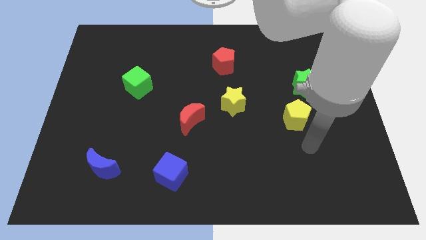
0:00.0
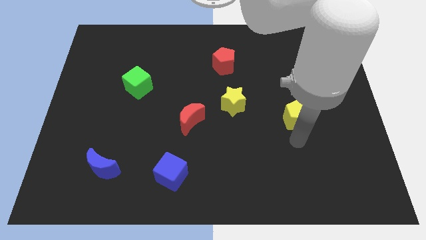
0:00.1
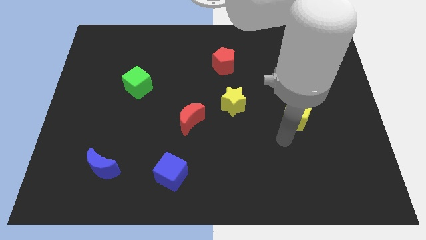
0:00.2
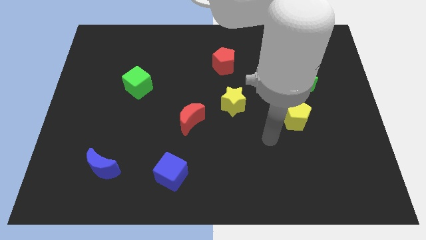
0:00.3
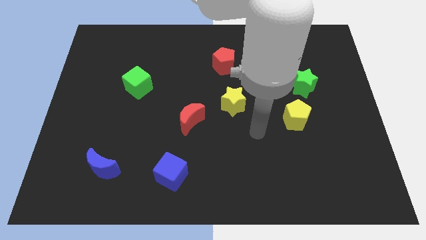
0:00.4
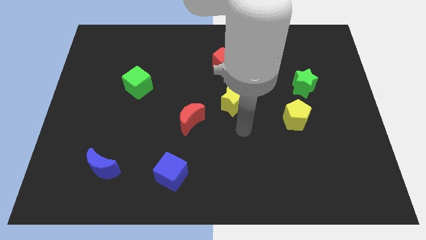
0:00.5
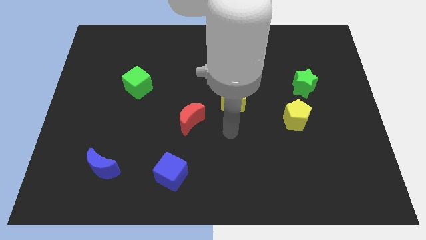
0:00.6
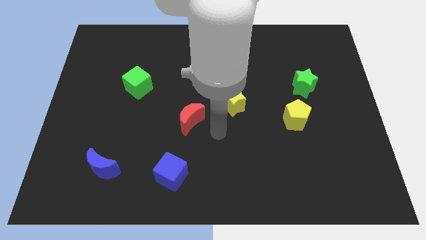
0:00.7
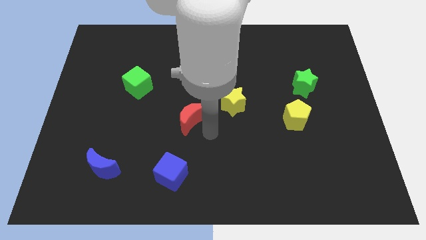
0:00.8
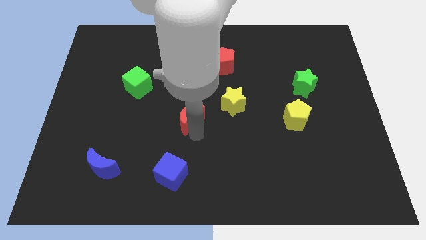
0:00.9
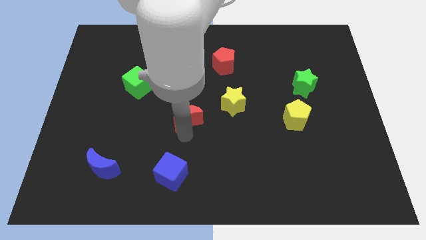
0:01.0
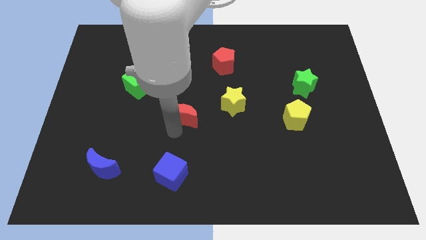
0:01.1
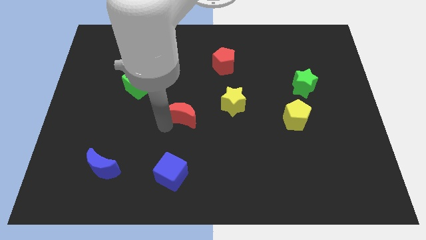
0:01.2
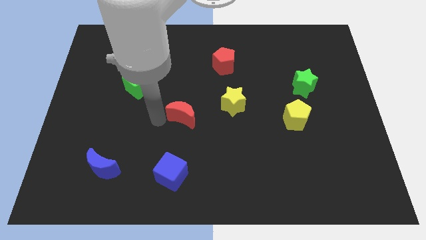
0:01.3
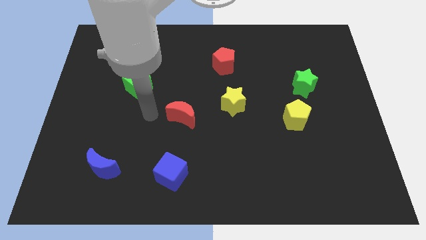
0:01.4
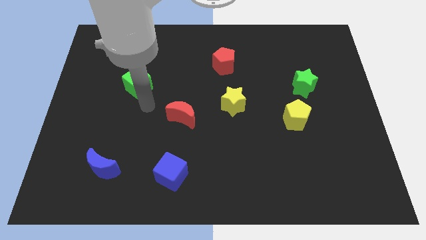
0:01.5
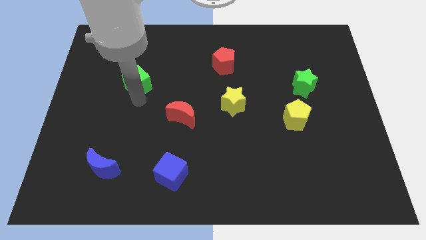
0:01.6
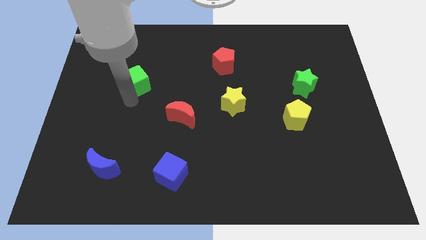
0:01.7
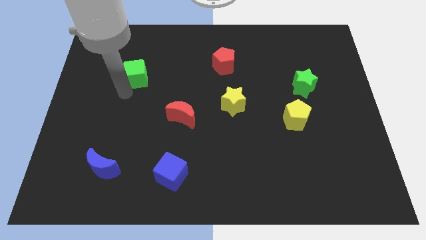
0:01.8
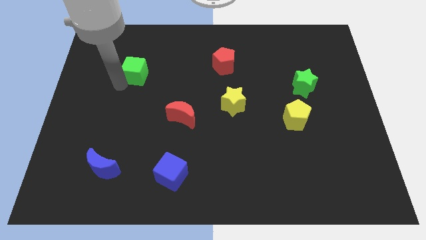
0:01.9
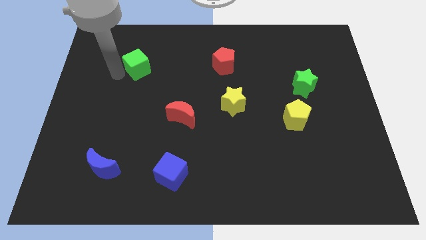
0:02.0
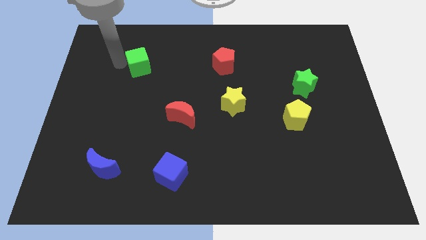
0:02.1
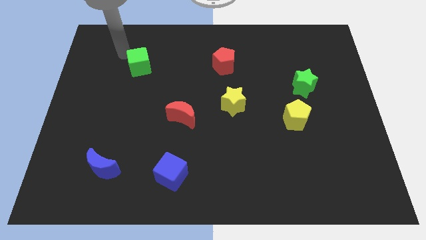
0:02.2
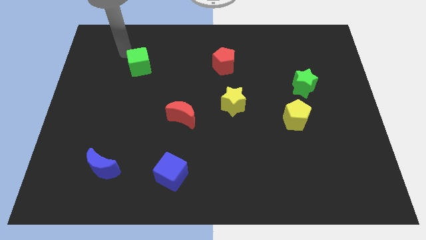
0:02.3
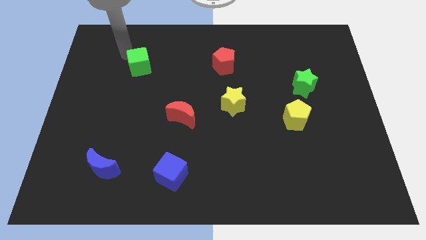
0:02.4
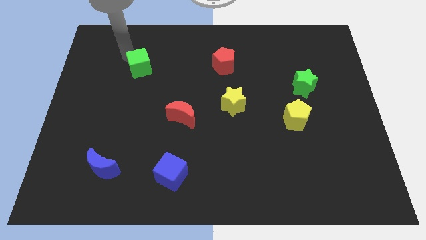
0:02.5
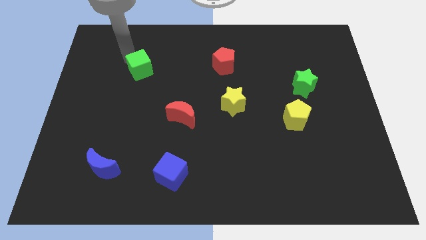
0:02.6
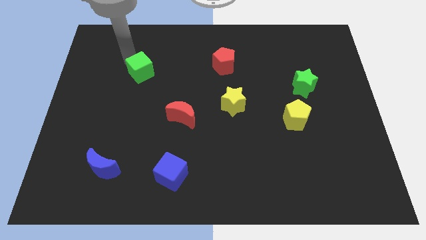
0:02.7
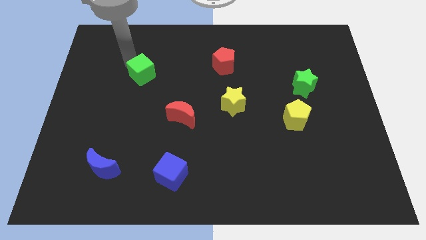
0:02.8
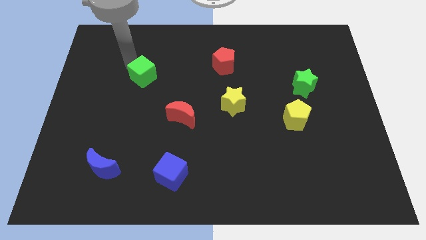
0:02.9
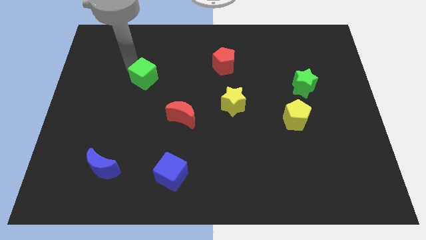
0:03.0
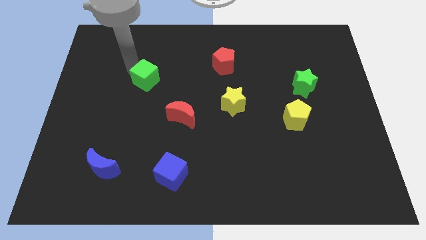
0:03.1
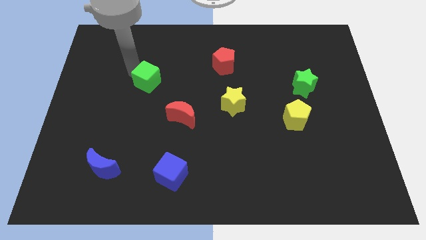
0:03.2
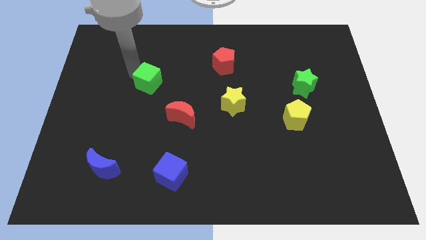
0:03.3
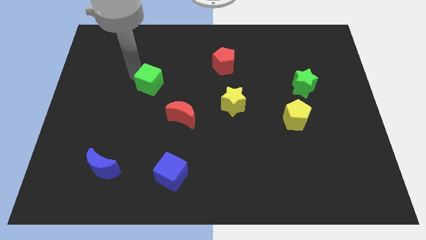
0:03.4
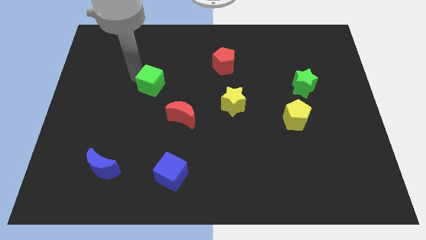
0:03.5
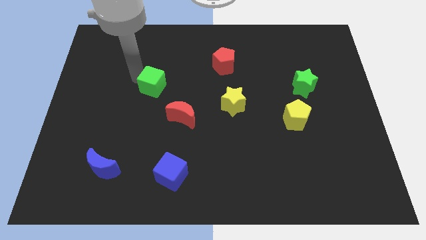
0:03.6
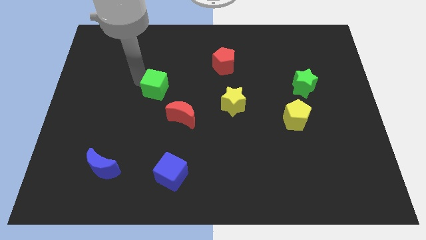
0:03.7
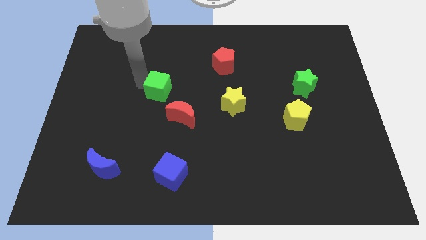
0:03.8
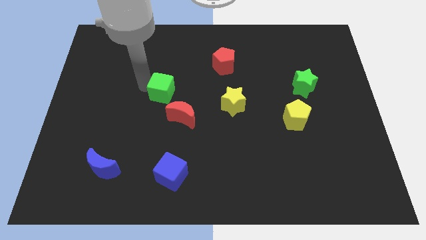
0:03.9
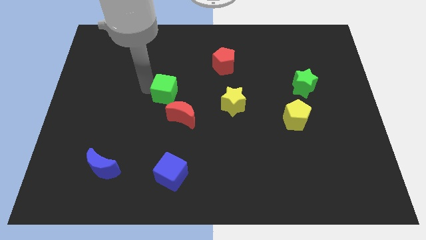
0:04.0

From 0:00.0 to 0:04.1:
slightly push the green cube to the right

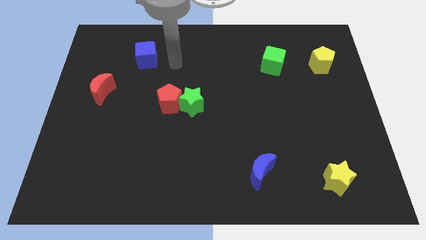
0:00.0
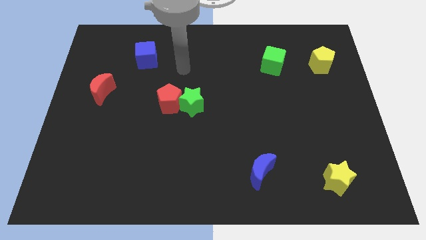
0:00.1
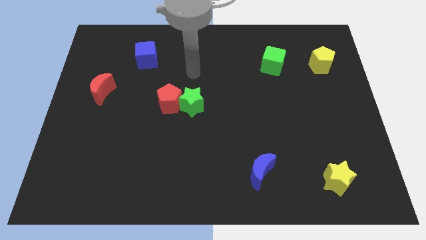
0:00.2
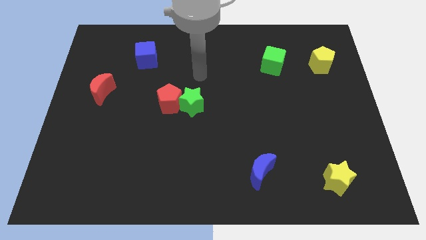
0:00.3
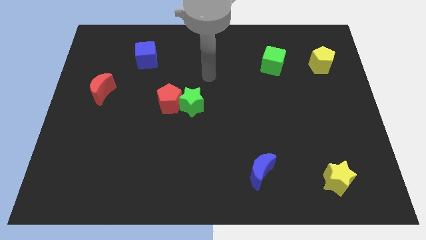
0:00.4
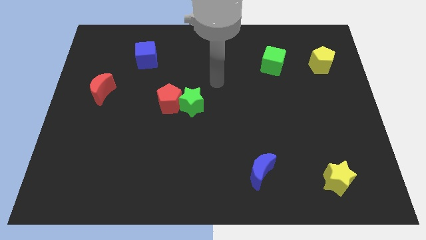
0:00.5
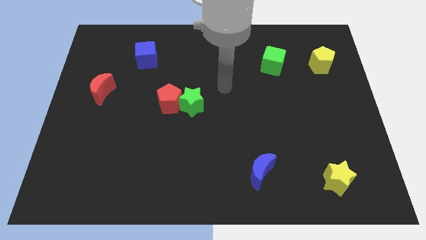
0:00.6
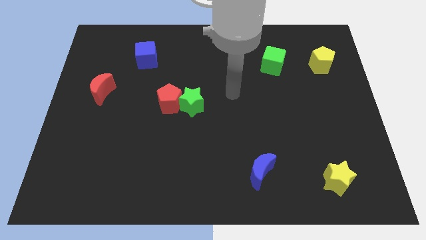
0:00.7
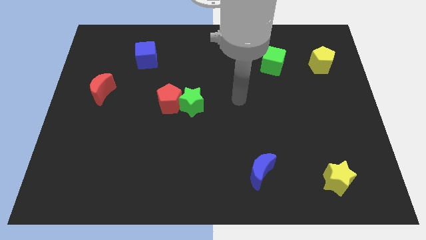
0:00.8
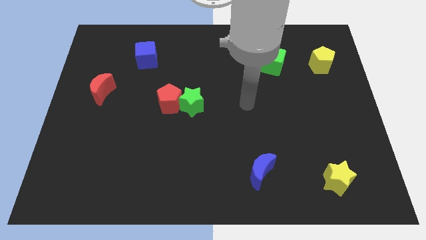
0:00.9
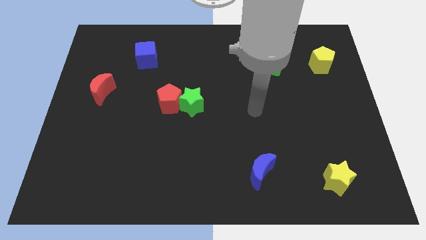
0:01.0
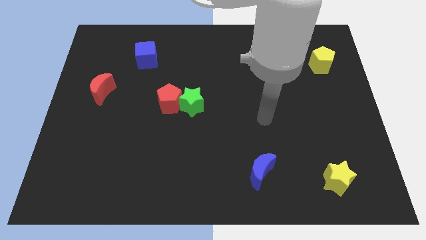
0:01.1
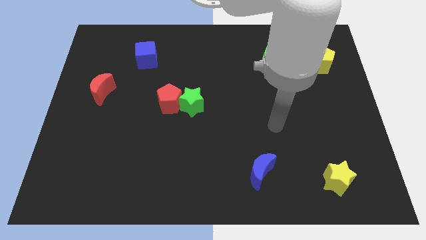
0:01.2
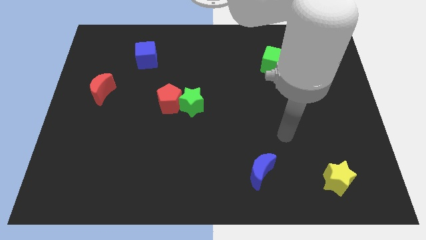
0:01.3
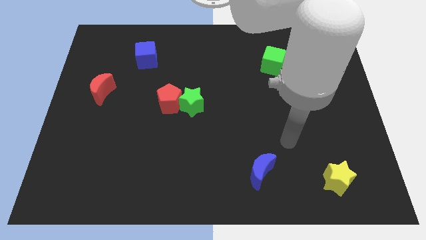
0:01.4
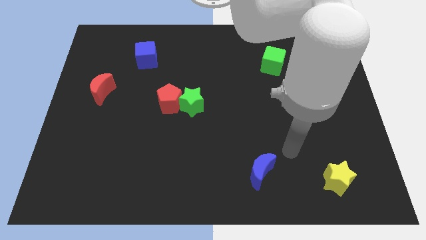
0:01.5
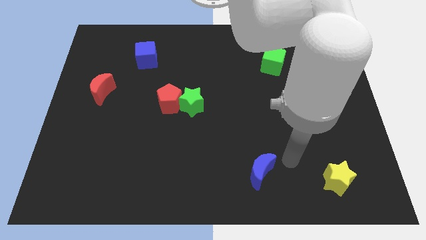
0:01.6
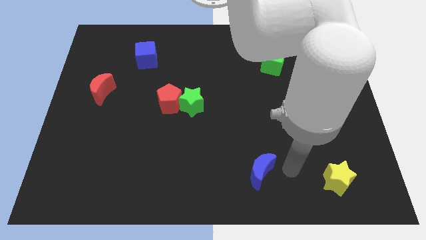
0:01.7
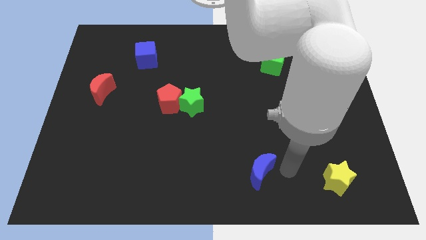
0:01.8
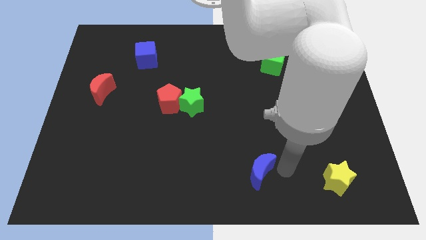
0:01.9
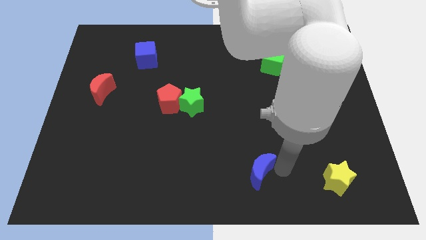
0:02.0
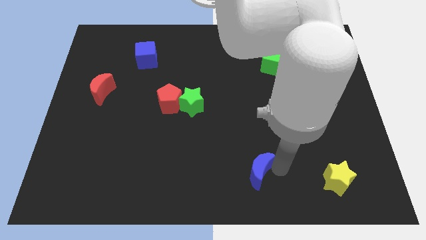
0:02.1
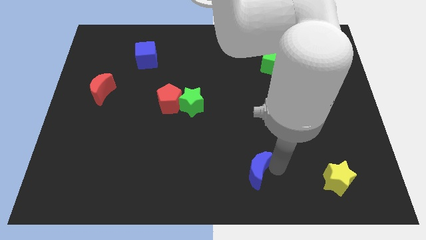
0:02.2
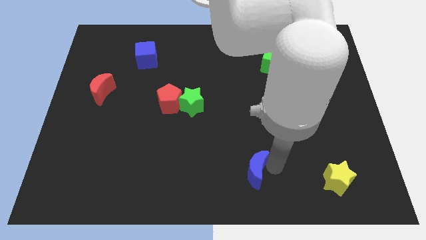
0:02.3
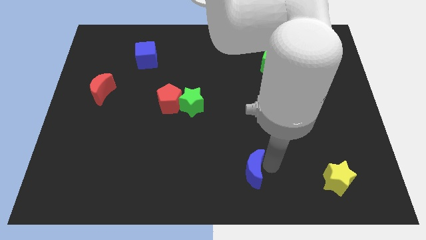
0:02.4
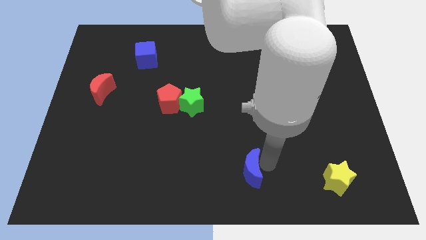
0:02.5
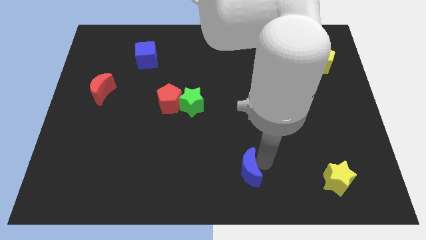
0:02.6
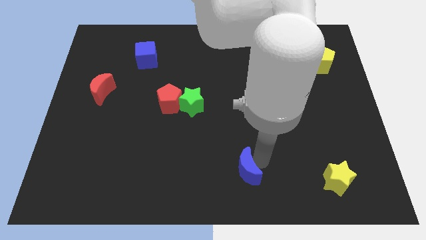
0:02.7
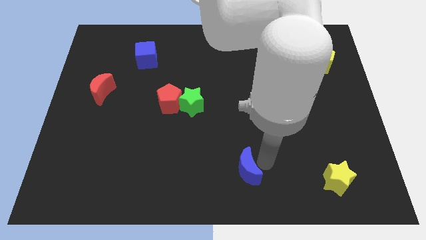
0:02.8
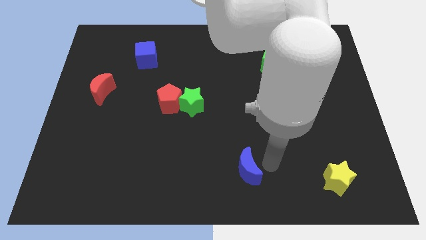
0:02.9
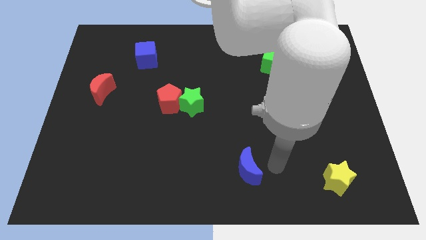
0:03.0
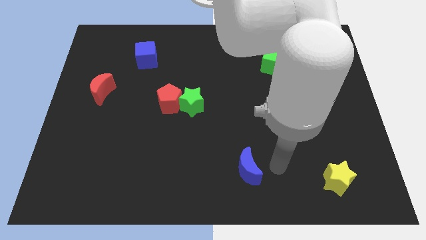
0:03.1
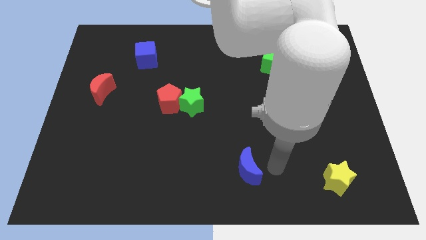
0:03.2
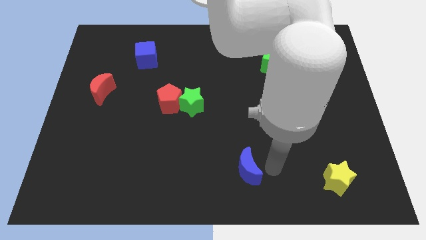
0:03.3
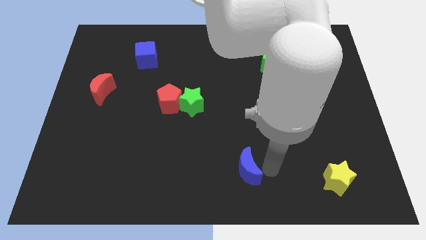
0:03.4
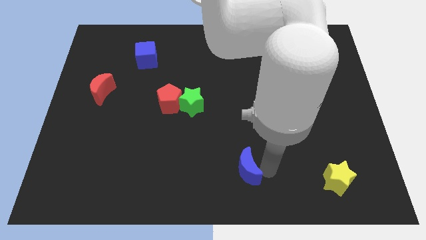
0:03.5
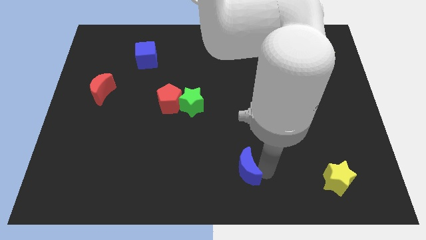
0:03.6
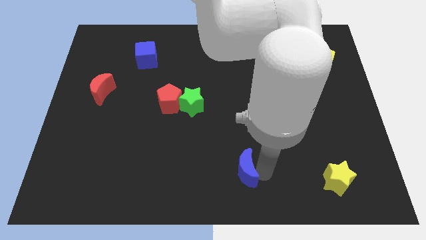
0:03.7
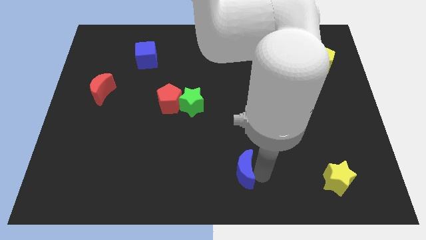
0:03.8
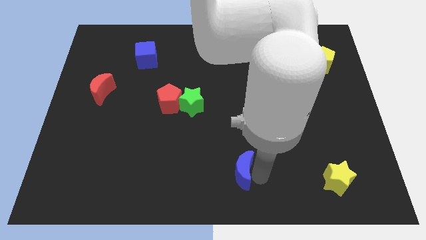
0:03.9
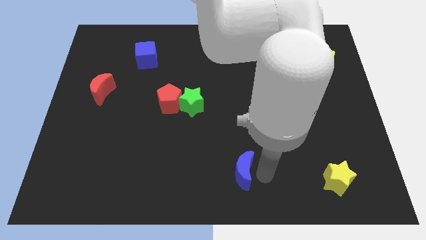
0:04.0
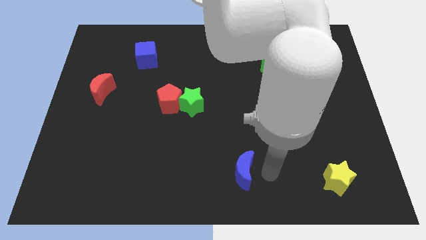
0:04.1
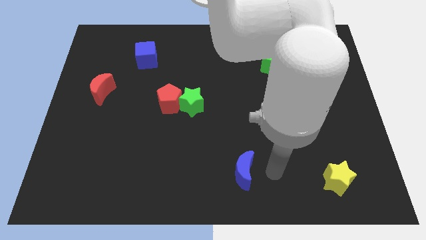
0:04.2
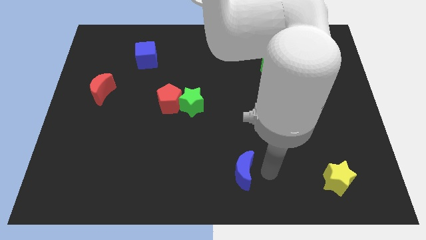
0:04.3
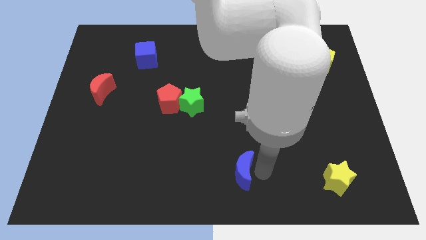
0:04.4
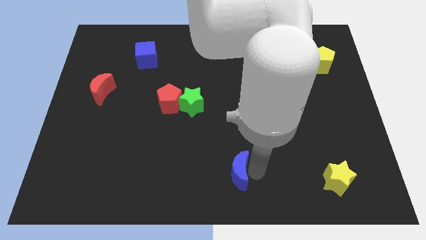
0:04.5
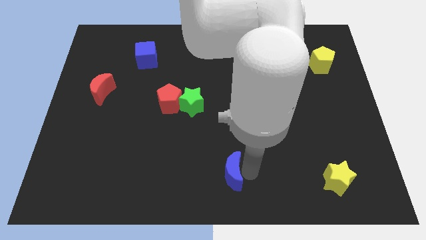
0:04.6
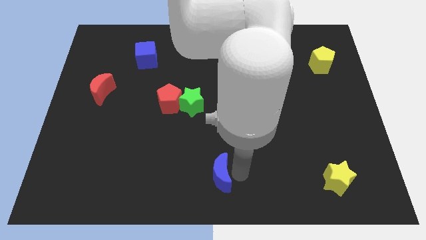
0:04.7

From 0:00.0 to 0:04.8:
slightly push the blue moon to the left
